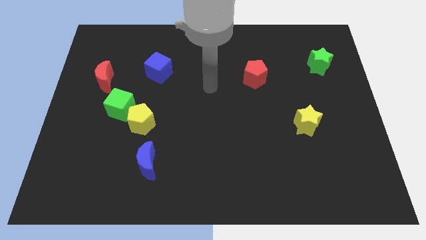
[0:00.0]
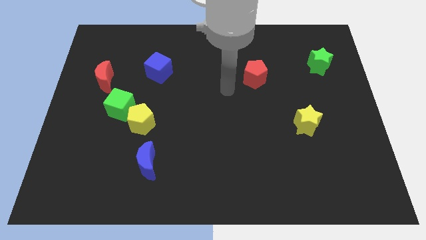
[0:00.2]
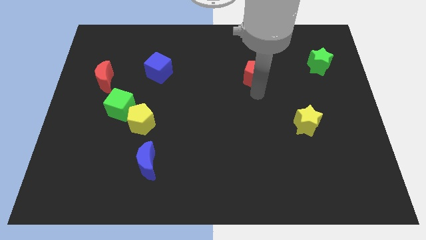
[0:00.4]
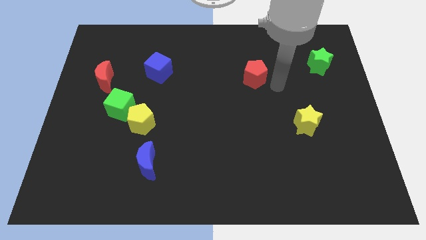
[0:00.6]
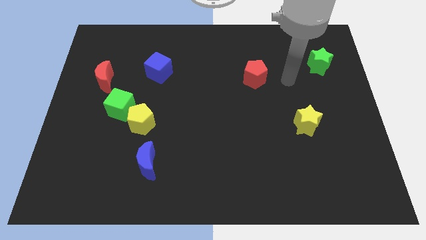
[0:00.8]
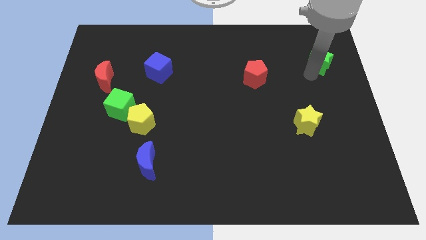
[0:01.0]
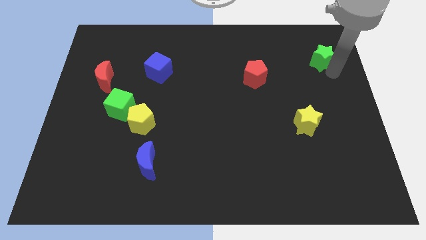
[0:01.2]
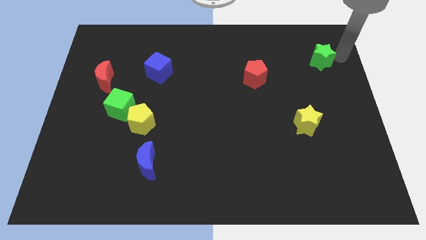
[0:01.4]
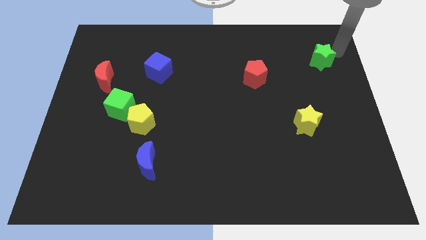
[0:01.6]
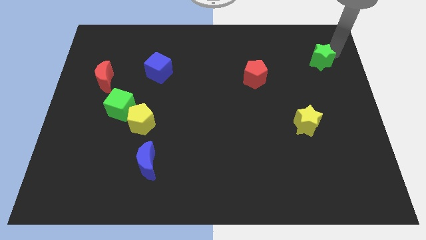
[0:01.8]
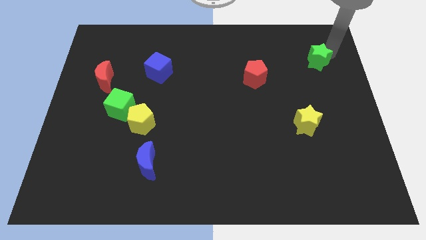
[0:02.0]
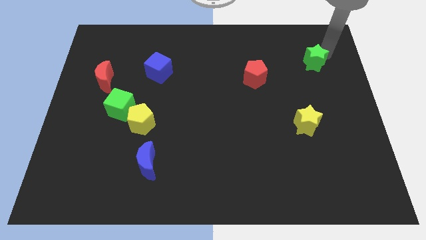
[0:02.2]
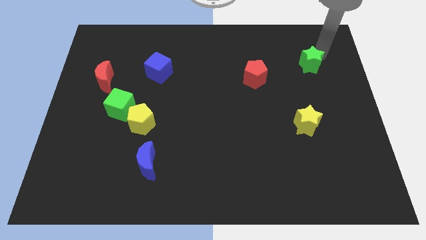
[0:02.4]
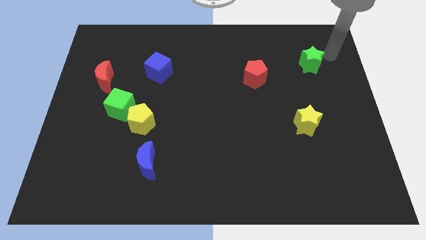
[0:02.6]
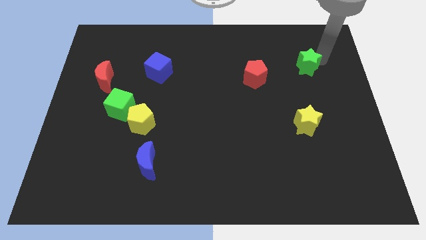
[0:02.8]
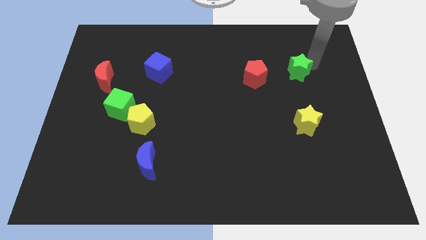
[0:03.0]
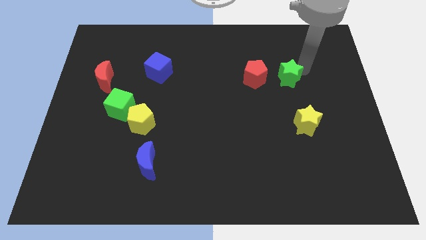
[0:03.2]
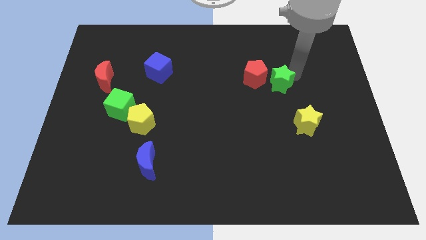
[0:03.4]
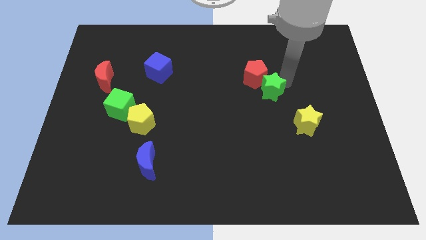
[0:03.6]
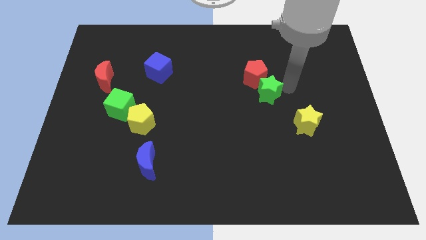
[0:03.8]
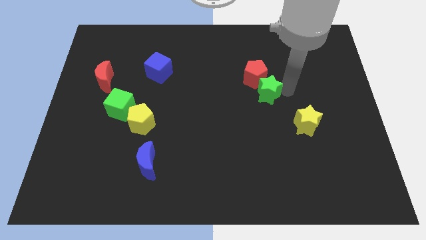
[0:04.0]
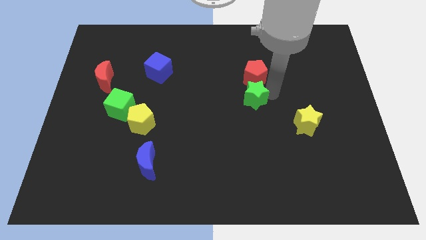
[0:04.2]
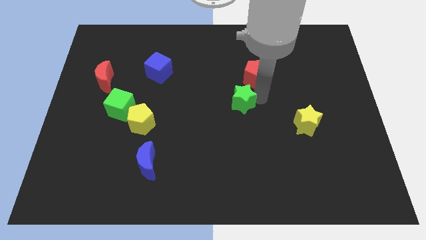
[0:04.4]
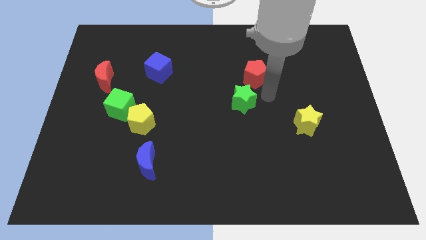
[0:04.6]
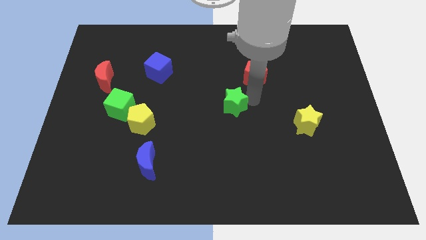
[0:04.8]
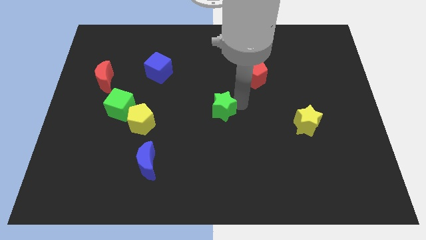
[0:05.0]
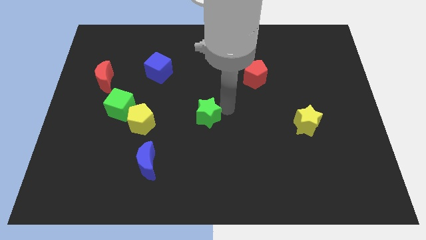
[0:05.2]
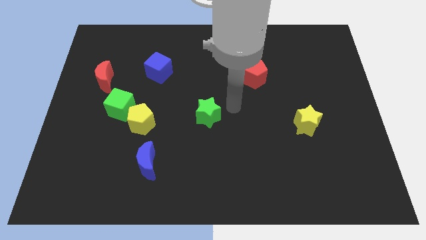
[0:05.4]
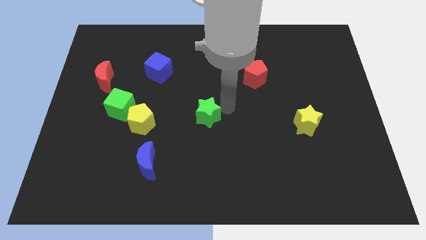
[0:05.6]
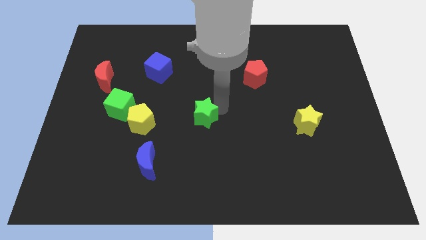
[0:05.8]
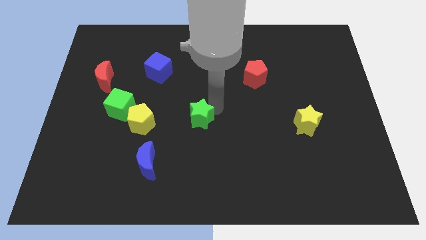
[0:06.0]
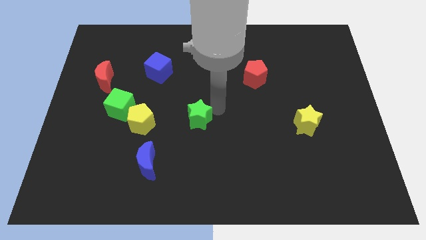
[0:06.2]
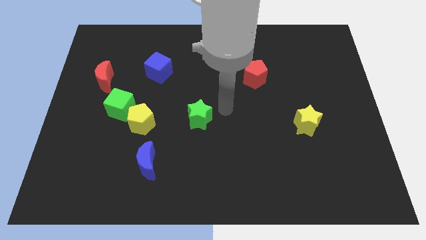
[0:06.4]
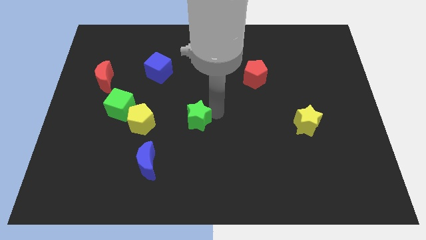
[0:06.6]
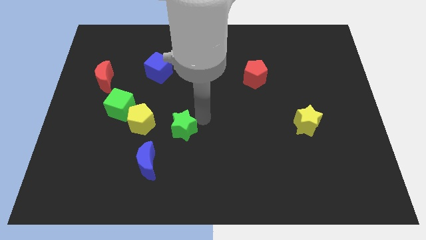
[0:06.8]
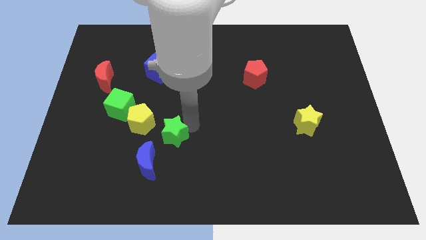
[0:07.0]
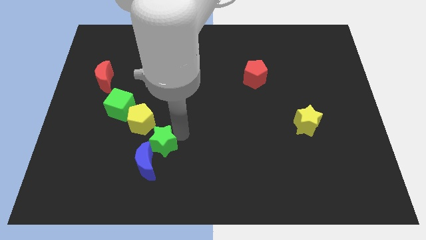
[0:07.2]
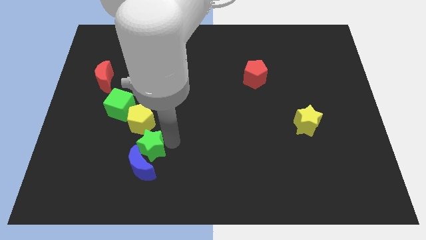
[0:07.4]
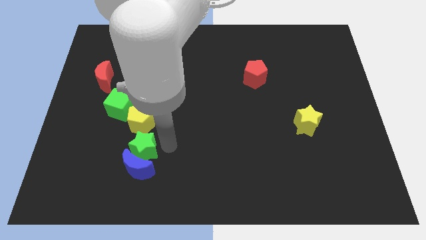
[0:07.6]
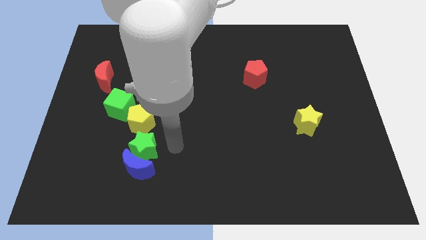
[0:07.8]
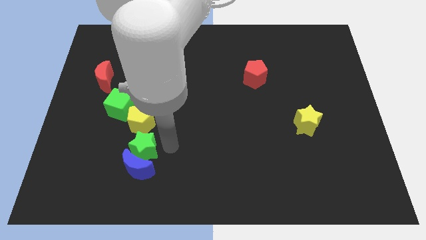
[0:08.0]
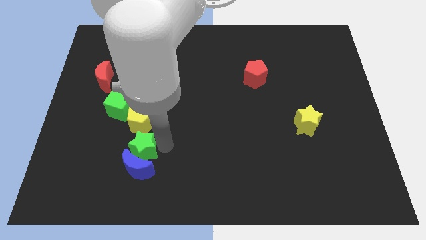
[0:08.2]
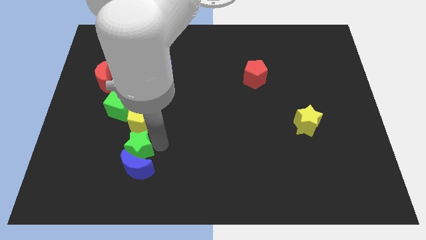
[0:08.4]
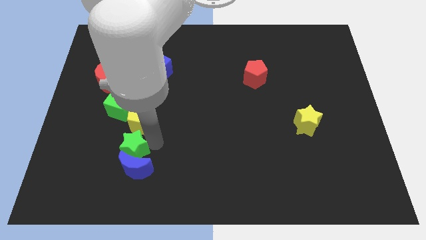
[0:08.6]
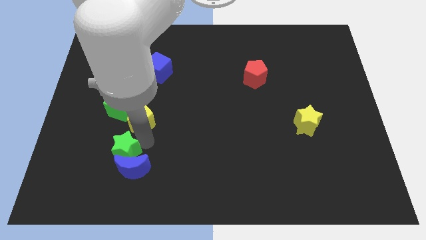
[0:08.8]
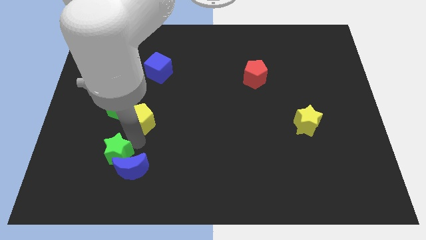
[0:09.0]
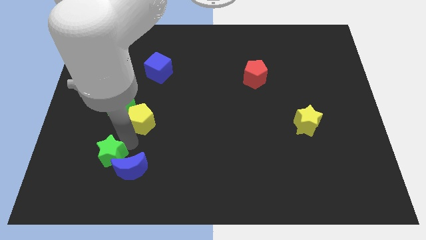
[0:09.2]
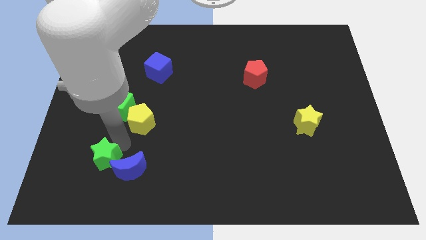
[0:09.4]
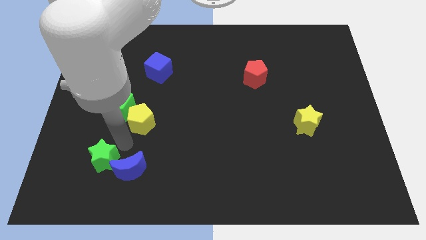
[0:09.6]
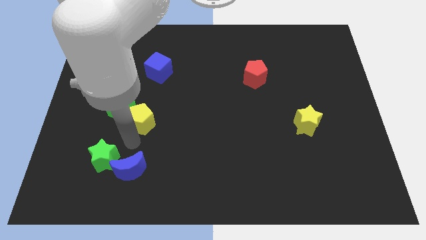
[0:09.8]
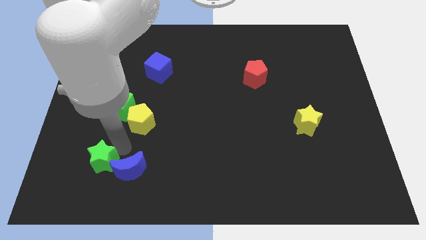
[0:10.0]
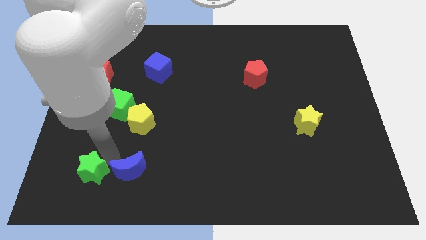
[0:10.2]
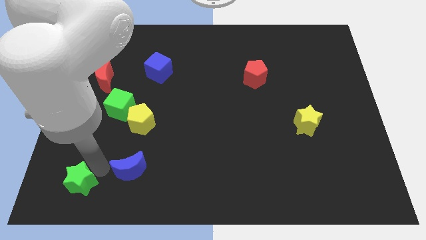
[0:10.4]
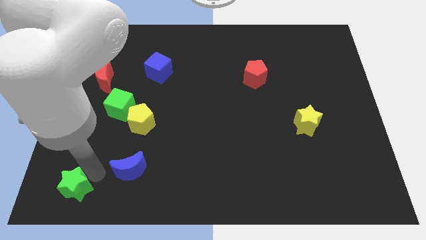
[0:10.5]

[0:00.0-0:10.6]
push the green star to the bottom left corner
